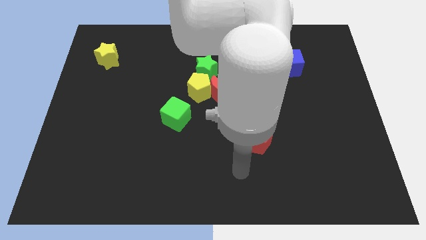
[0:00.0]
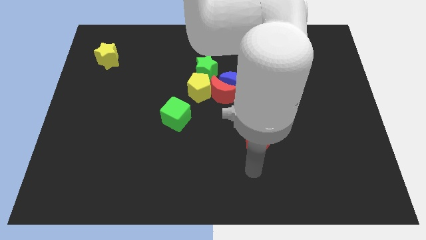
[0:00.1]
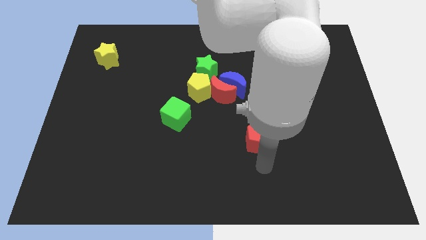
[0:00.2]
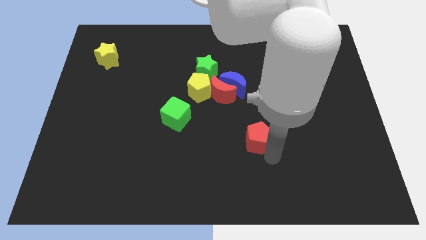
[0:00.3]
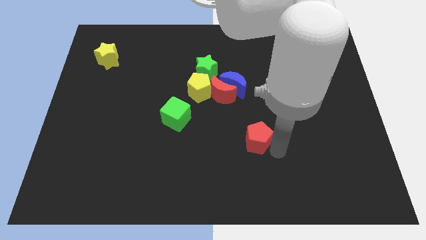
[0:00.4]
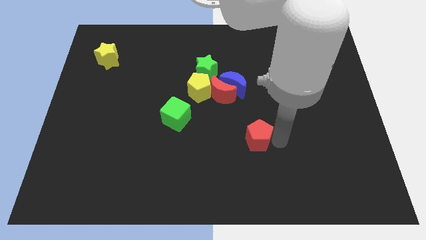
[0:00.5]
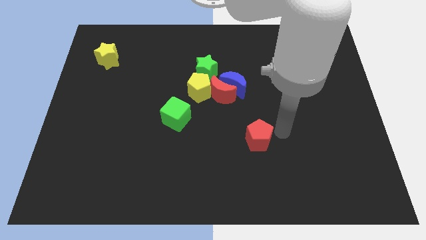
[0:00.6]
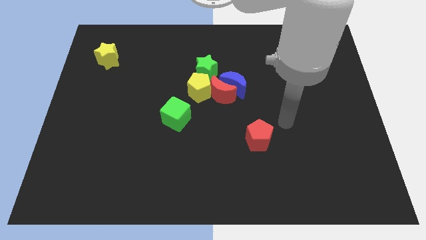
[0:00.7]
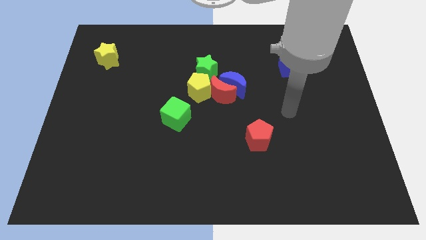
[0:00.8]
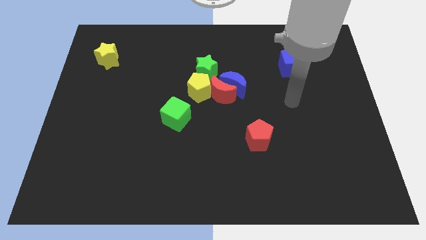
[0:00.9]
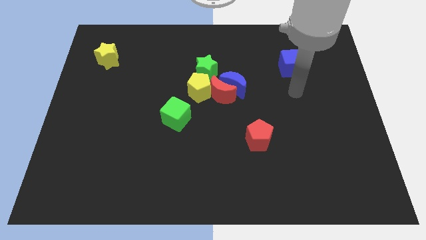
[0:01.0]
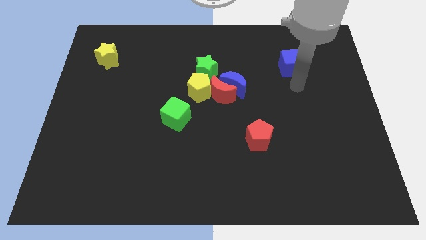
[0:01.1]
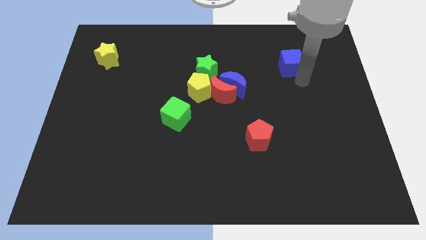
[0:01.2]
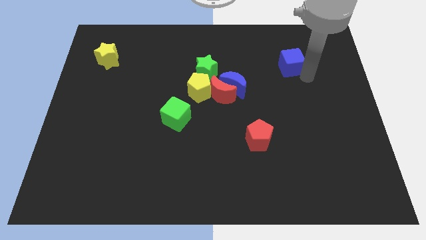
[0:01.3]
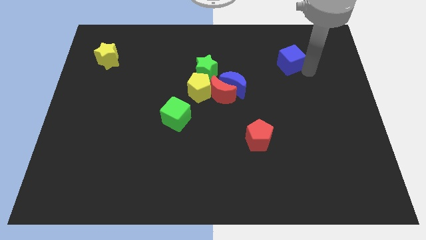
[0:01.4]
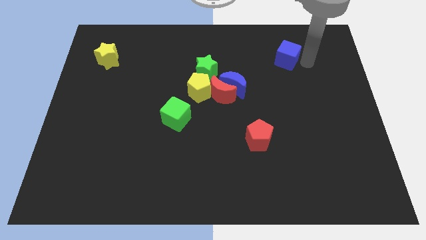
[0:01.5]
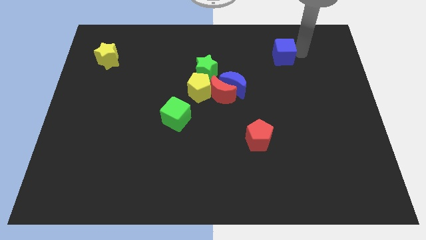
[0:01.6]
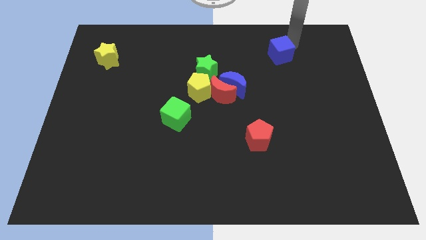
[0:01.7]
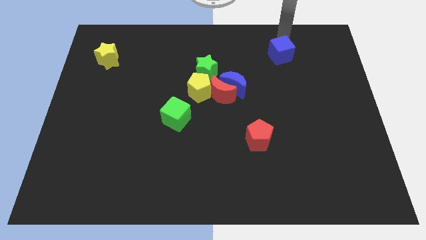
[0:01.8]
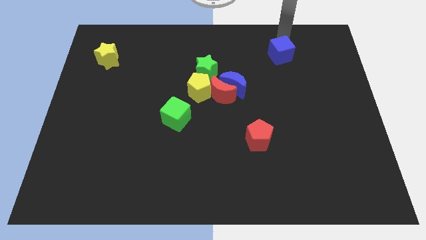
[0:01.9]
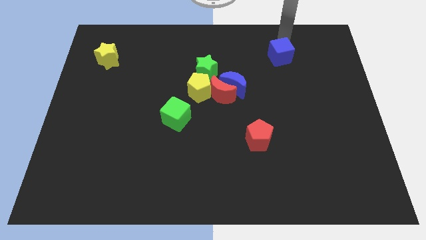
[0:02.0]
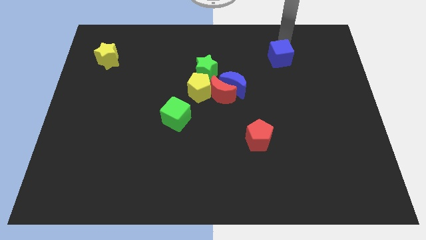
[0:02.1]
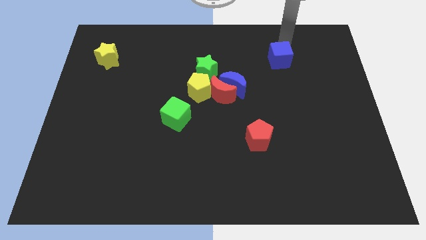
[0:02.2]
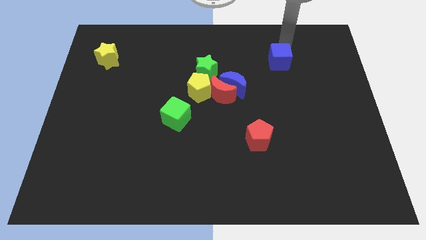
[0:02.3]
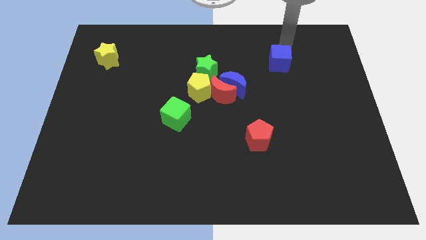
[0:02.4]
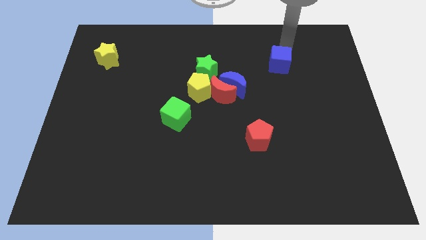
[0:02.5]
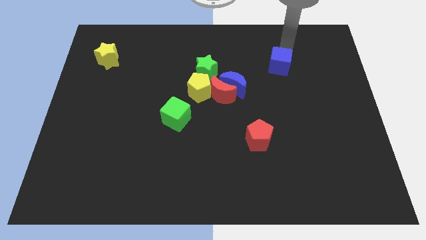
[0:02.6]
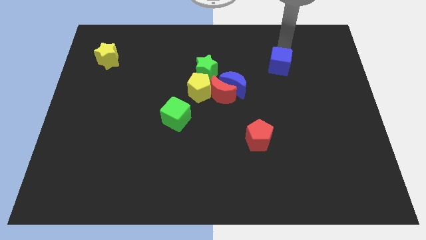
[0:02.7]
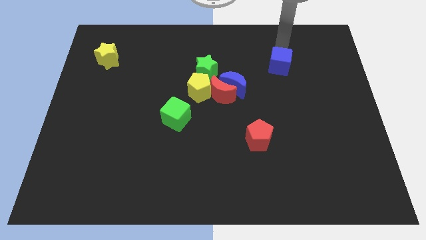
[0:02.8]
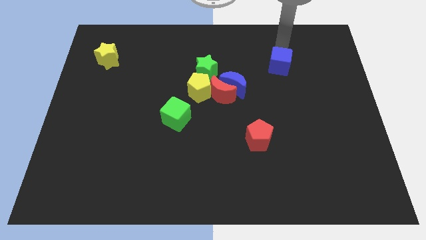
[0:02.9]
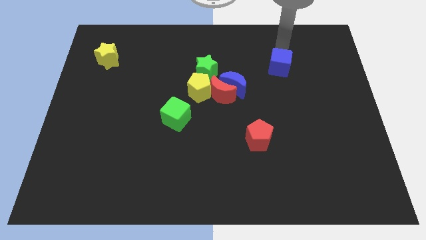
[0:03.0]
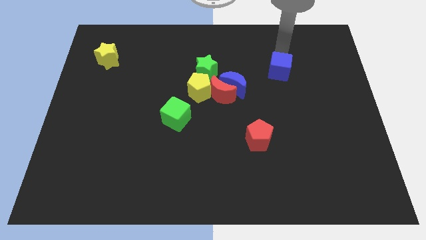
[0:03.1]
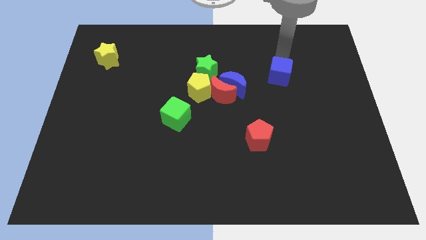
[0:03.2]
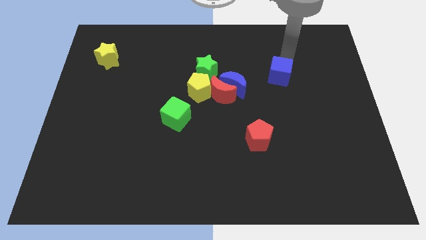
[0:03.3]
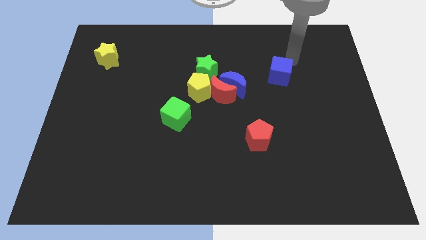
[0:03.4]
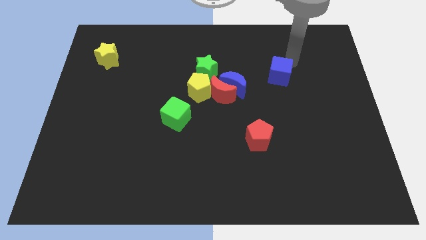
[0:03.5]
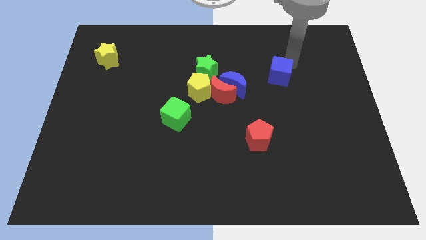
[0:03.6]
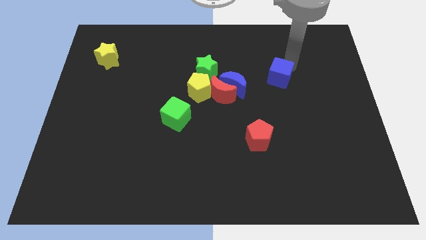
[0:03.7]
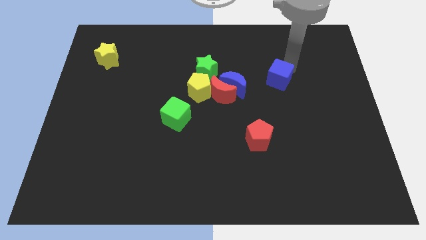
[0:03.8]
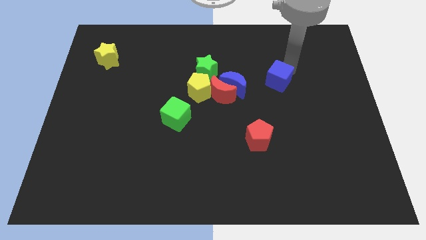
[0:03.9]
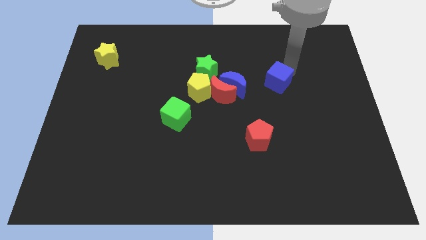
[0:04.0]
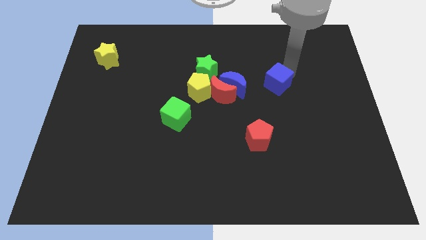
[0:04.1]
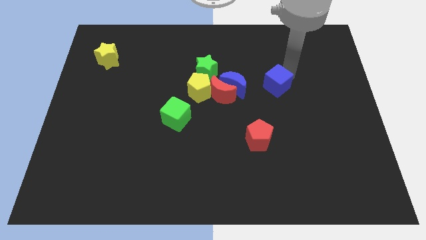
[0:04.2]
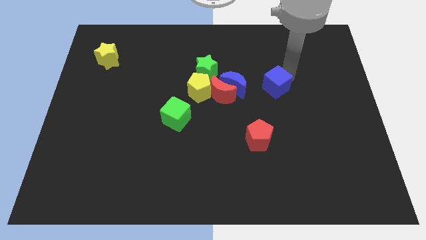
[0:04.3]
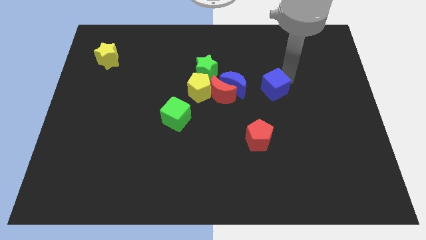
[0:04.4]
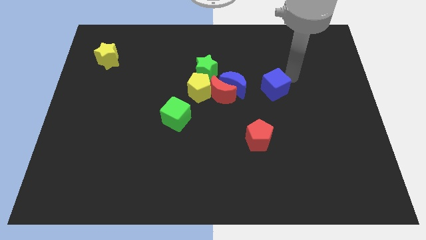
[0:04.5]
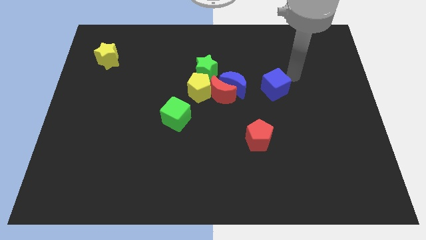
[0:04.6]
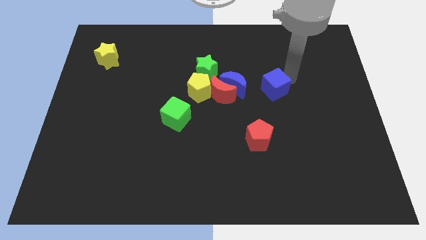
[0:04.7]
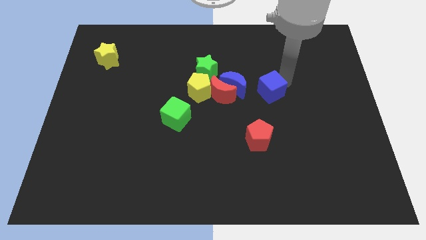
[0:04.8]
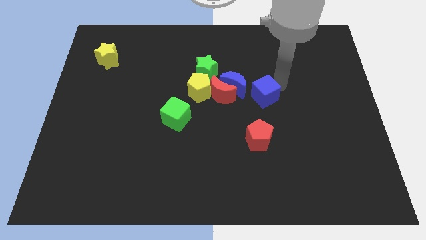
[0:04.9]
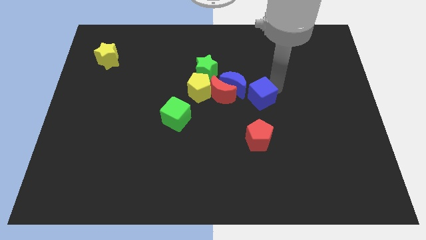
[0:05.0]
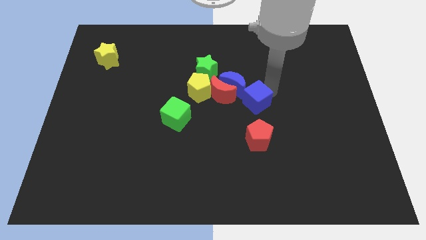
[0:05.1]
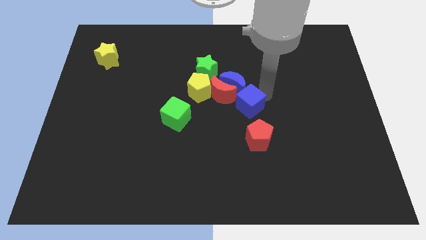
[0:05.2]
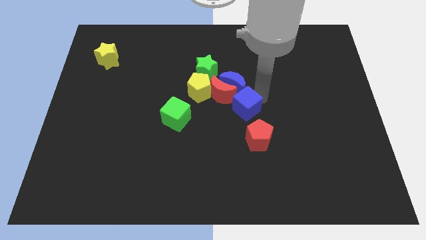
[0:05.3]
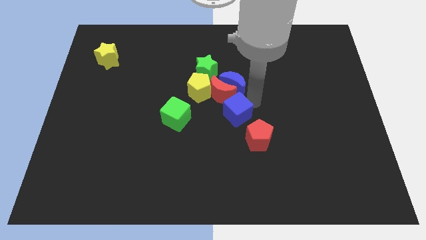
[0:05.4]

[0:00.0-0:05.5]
push the blue cube to the bottom side of the red moon

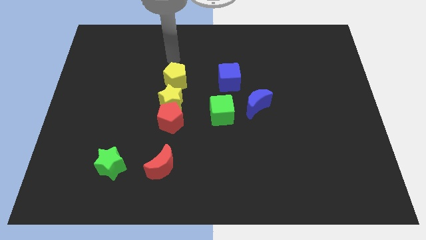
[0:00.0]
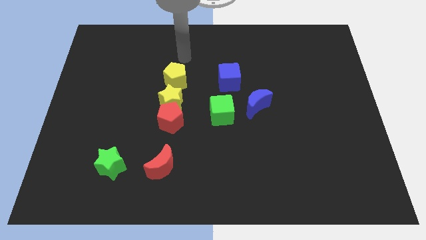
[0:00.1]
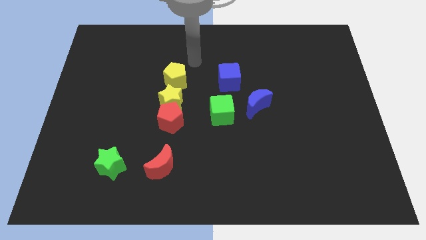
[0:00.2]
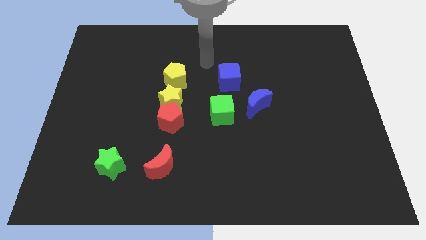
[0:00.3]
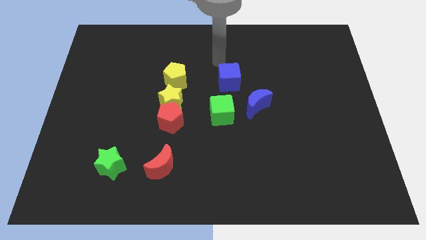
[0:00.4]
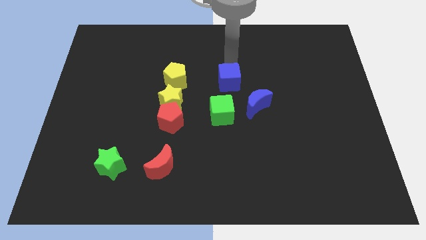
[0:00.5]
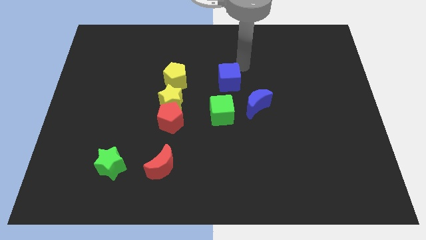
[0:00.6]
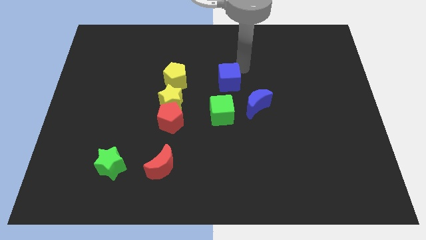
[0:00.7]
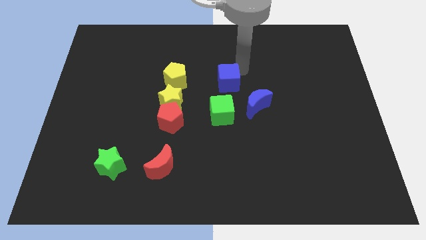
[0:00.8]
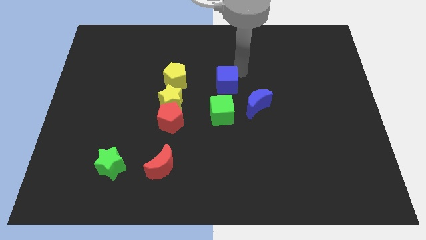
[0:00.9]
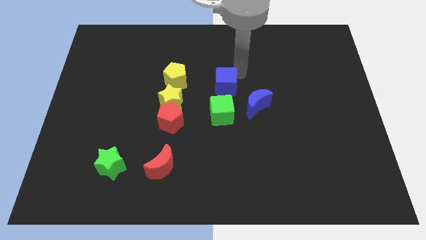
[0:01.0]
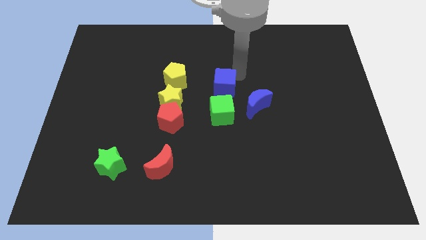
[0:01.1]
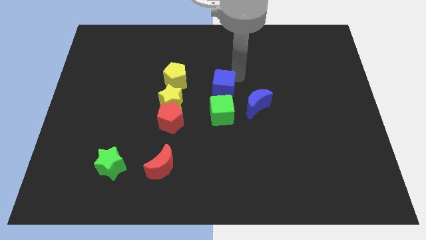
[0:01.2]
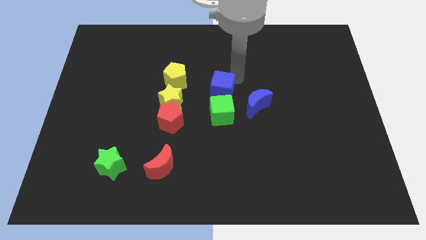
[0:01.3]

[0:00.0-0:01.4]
put the blue cube just left of the blue moon
